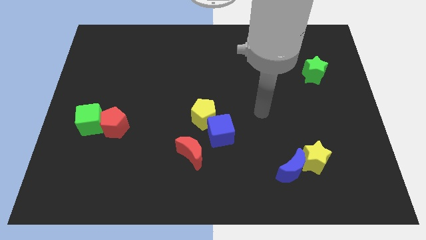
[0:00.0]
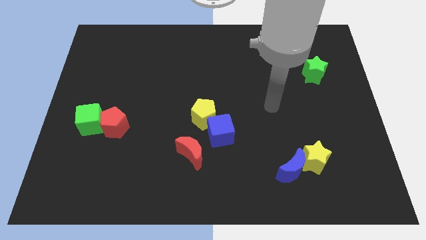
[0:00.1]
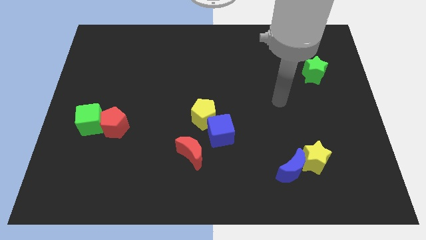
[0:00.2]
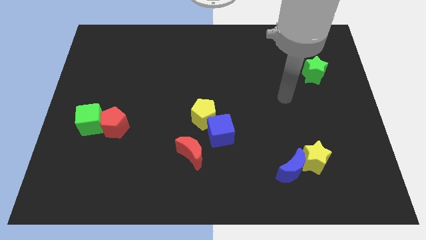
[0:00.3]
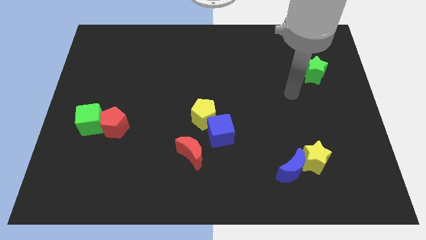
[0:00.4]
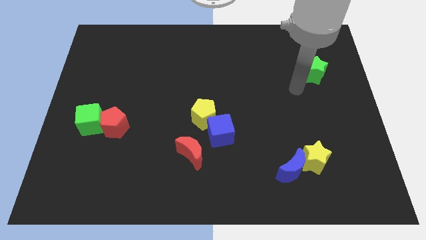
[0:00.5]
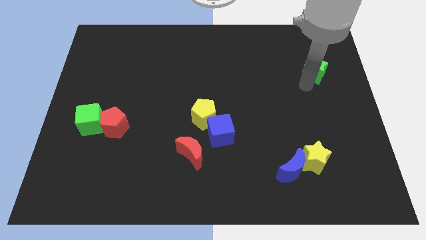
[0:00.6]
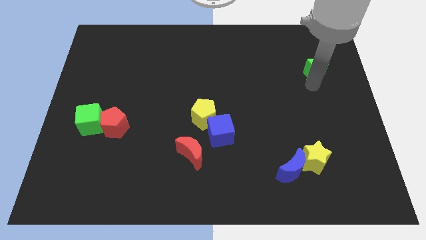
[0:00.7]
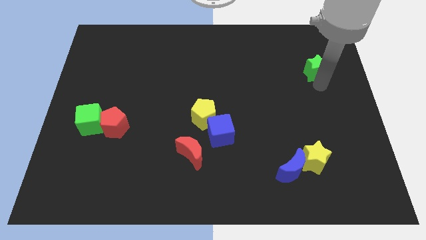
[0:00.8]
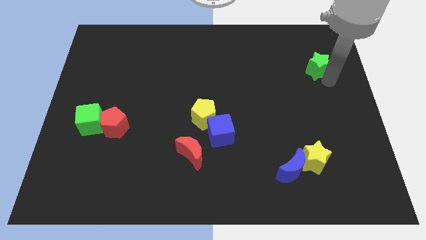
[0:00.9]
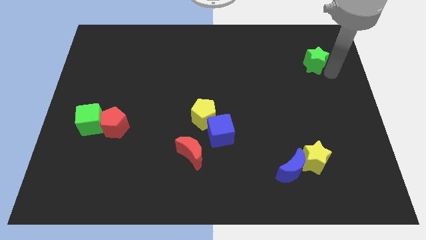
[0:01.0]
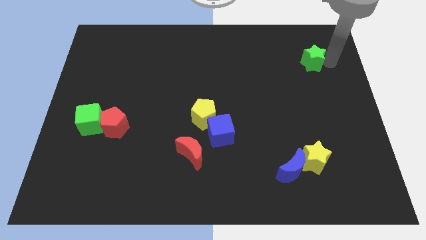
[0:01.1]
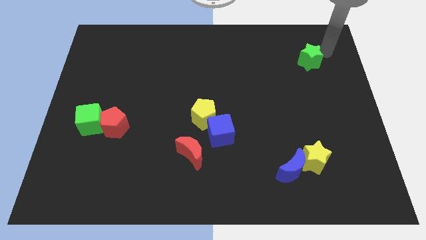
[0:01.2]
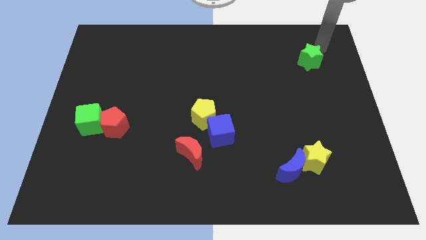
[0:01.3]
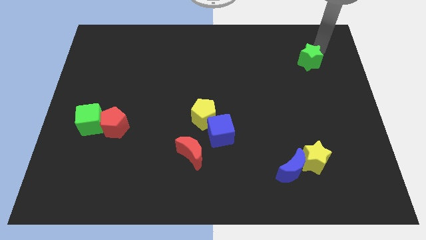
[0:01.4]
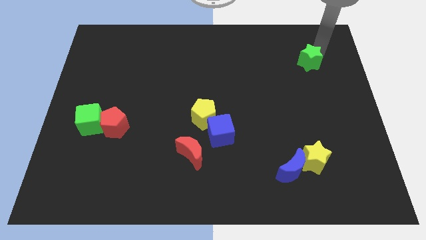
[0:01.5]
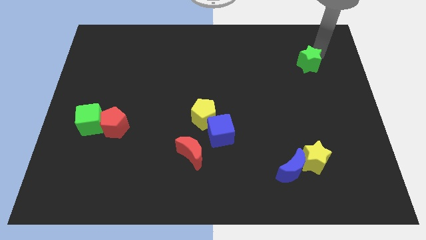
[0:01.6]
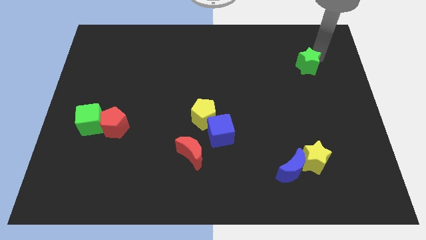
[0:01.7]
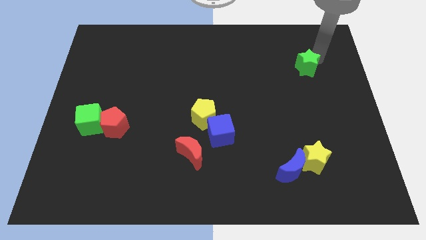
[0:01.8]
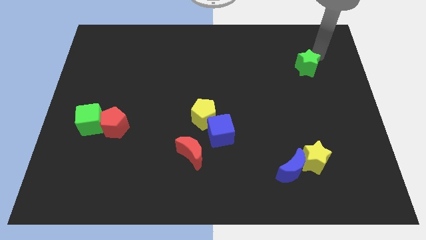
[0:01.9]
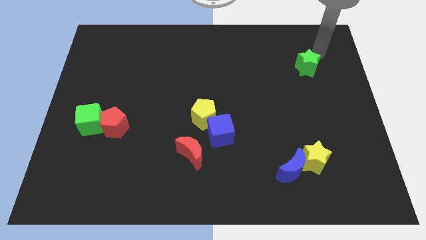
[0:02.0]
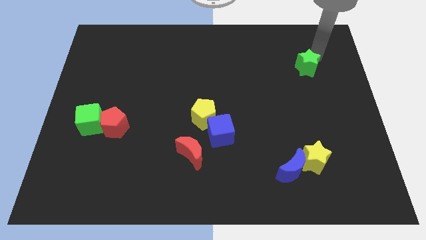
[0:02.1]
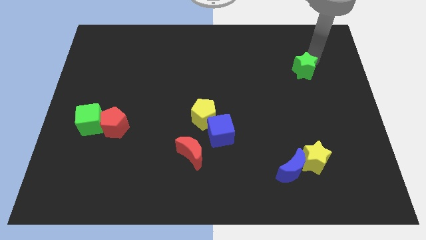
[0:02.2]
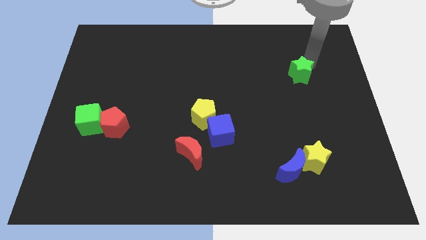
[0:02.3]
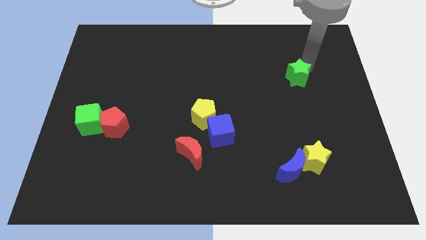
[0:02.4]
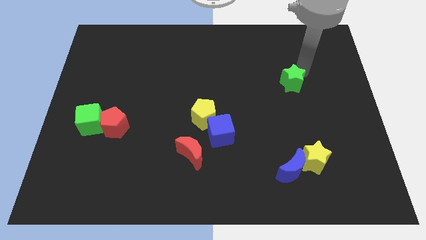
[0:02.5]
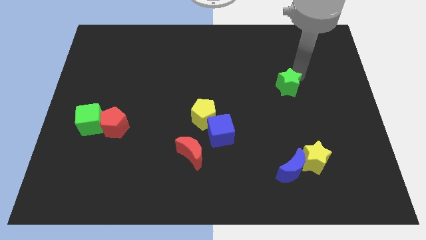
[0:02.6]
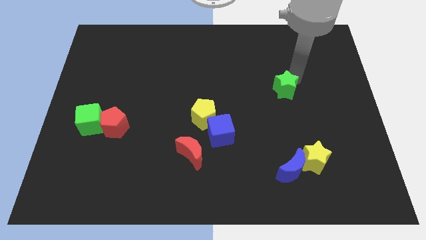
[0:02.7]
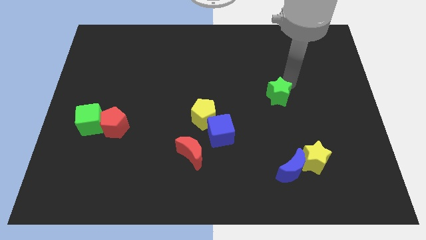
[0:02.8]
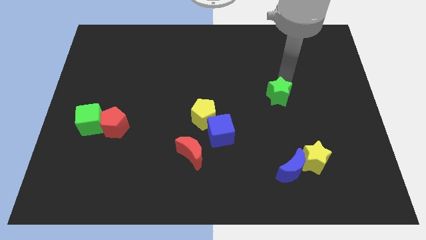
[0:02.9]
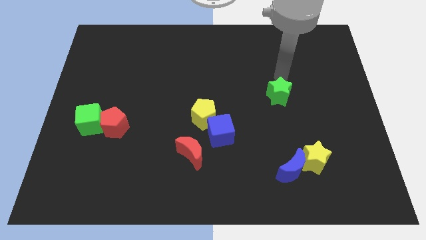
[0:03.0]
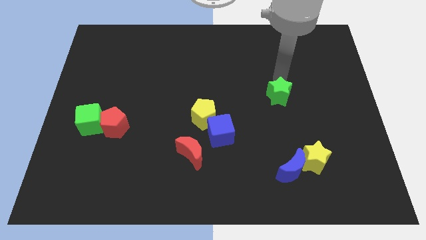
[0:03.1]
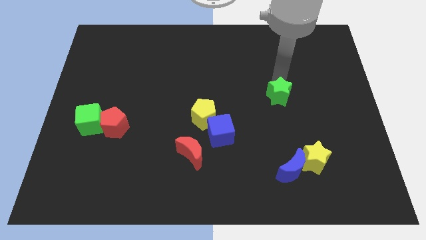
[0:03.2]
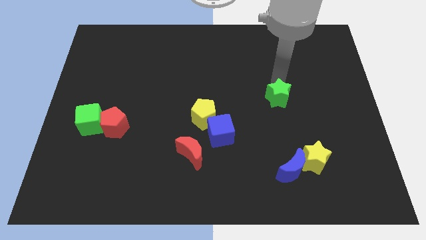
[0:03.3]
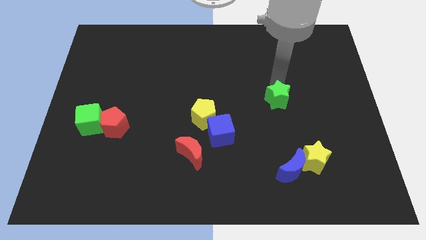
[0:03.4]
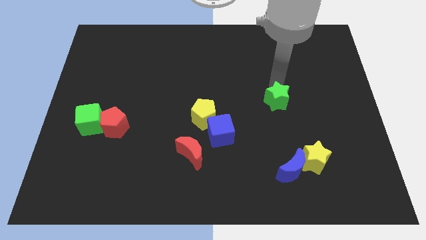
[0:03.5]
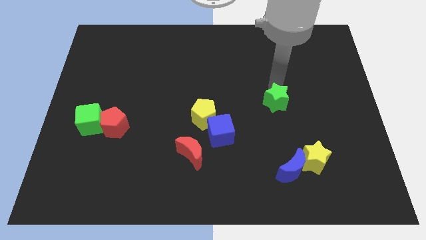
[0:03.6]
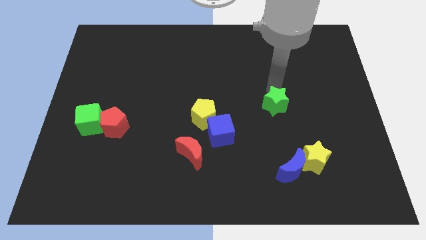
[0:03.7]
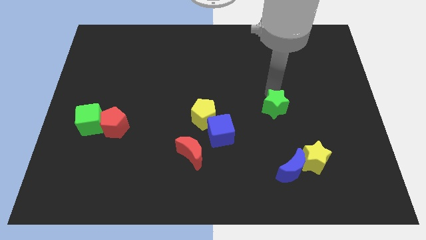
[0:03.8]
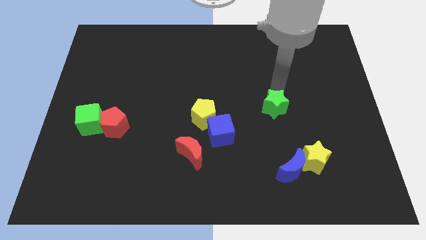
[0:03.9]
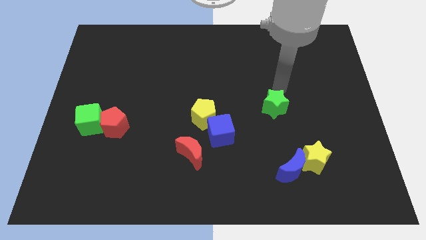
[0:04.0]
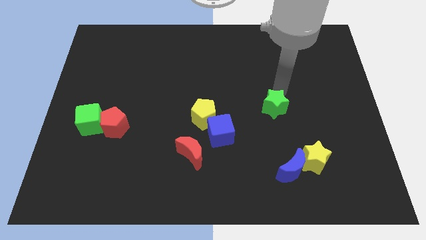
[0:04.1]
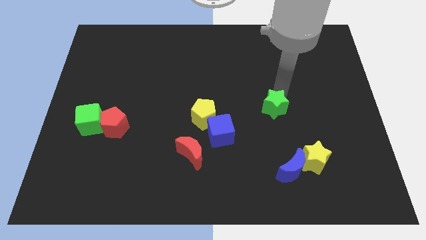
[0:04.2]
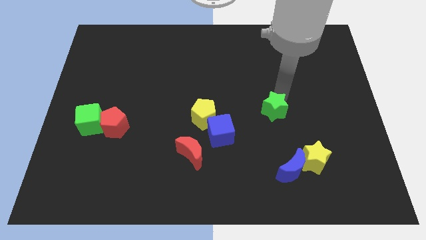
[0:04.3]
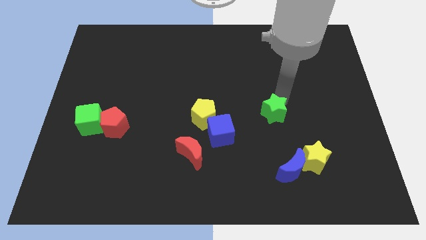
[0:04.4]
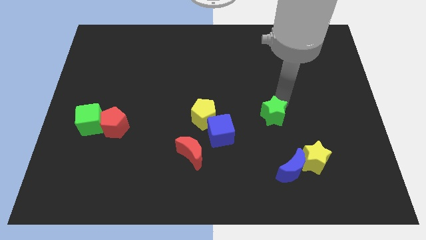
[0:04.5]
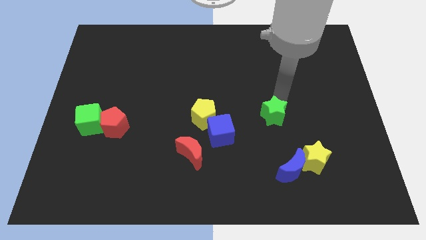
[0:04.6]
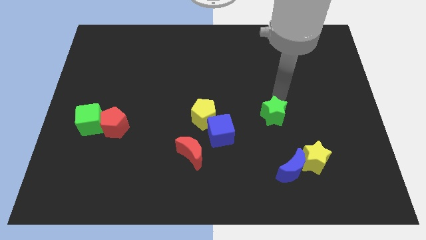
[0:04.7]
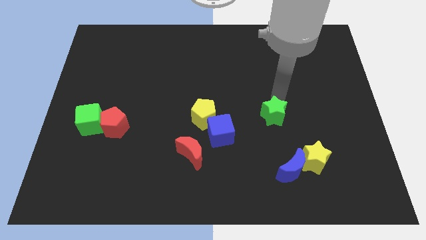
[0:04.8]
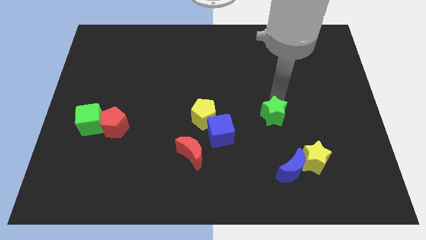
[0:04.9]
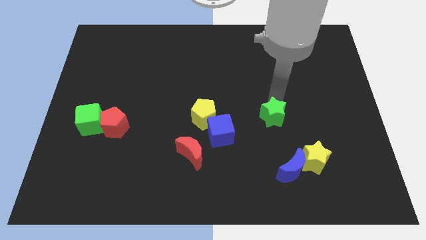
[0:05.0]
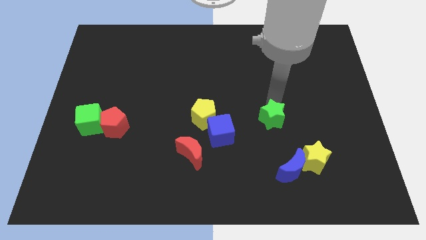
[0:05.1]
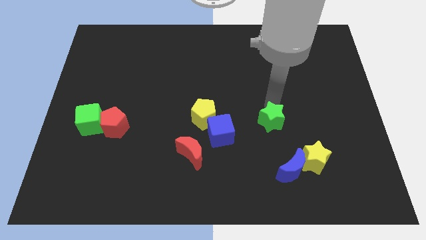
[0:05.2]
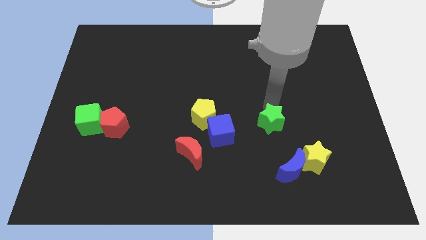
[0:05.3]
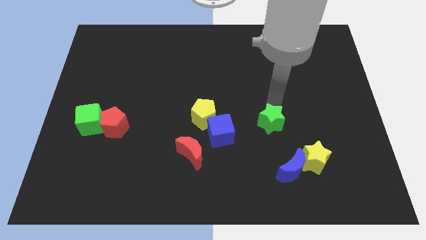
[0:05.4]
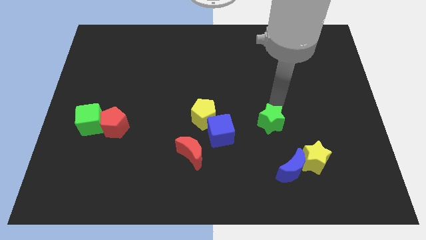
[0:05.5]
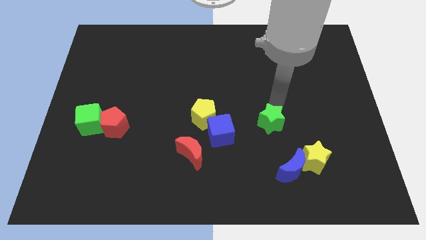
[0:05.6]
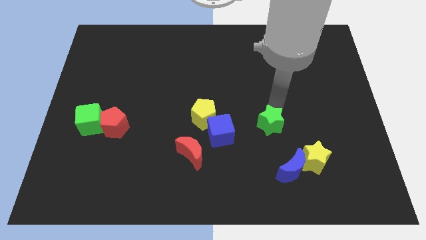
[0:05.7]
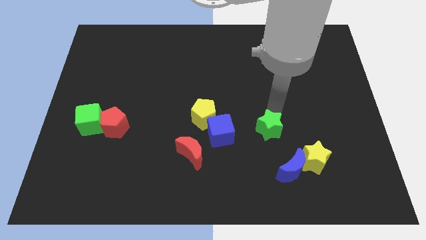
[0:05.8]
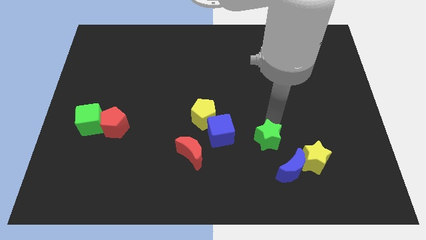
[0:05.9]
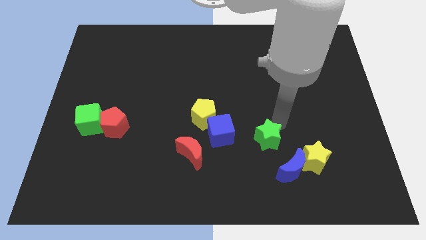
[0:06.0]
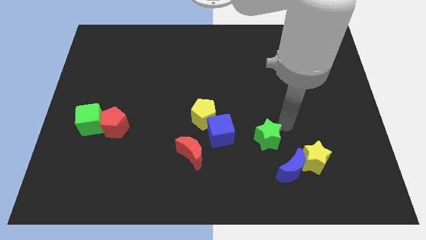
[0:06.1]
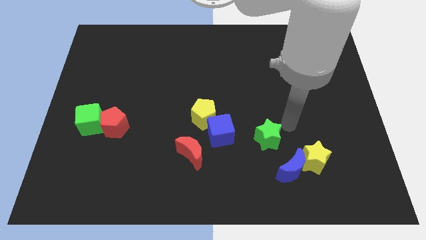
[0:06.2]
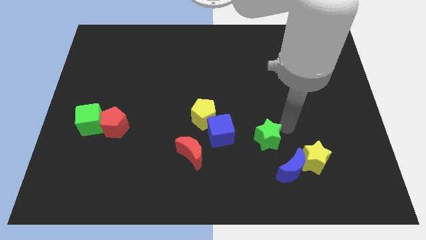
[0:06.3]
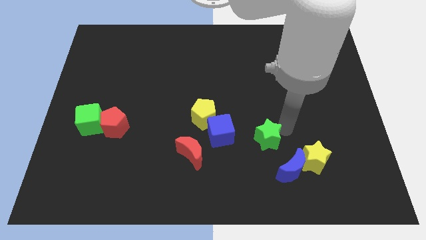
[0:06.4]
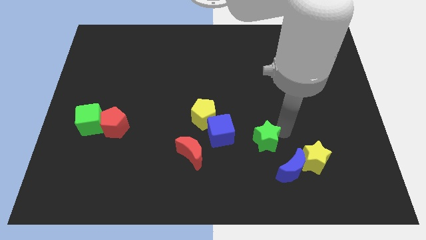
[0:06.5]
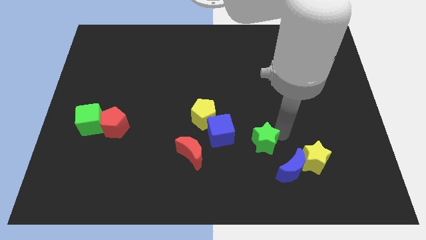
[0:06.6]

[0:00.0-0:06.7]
put the green star diagonally down and to the right of the blue cube

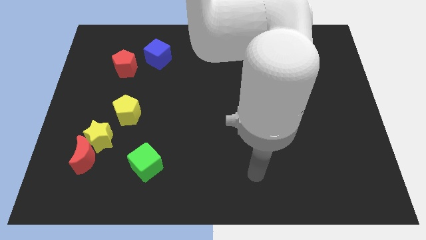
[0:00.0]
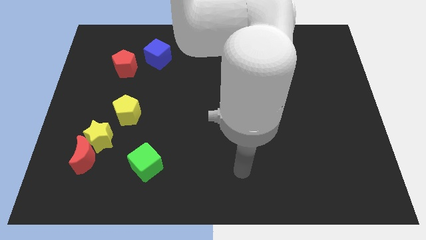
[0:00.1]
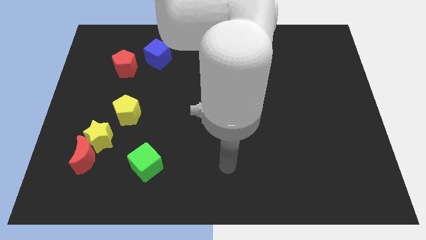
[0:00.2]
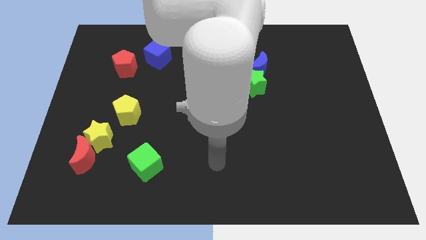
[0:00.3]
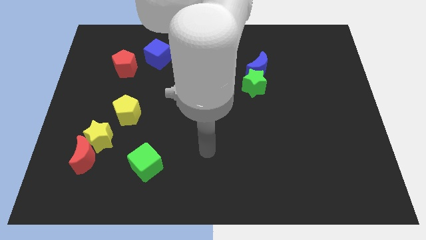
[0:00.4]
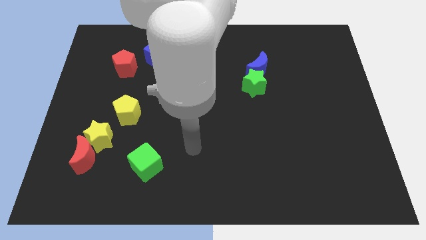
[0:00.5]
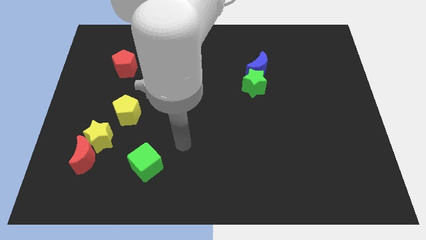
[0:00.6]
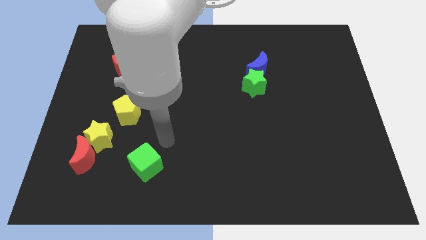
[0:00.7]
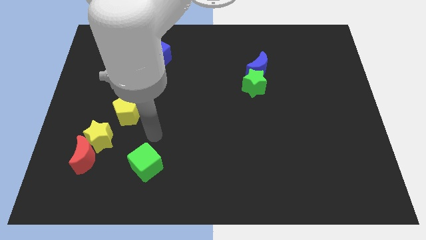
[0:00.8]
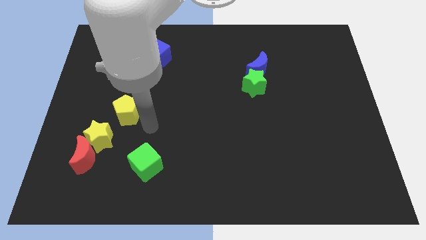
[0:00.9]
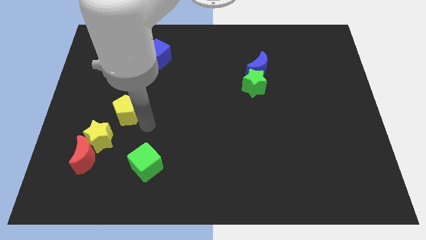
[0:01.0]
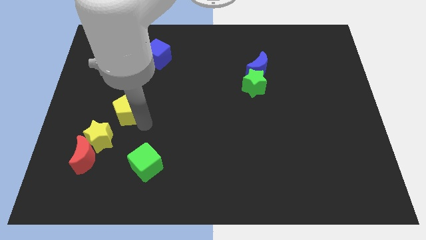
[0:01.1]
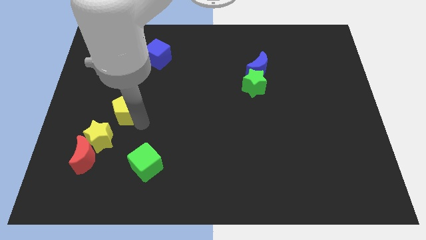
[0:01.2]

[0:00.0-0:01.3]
push the yellow pentagon to the top of the yellow star

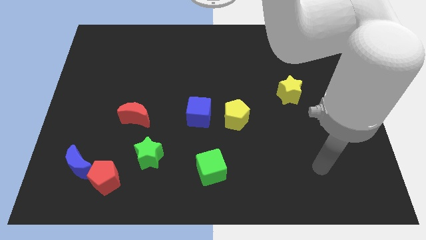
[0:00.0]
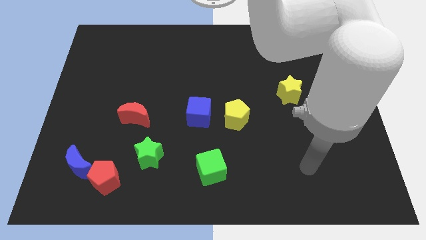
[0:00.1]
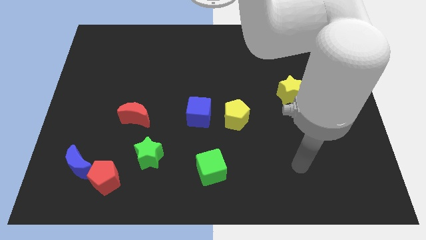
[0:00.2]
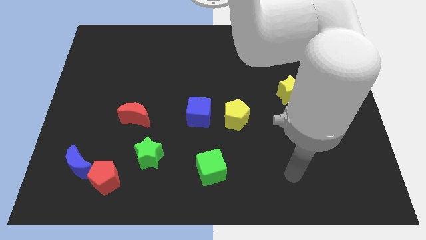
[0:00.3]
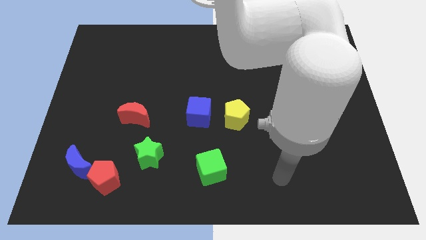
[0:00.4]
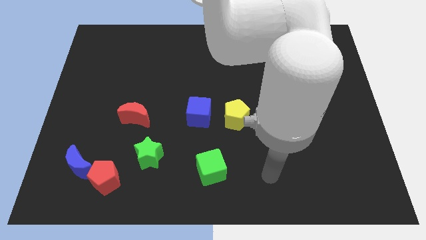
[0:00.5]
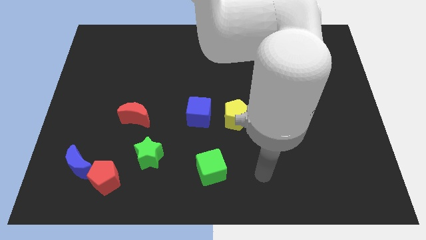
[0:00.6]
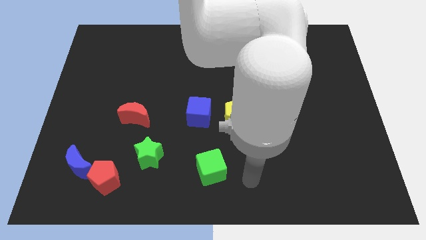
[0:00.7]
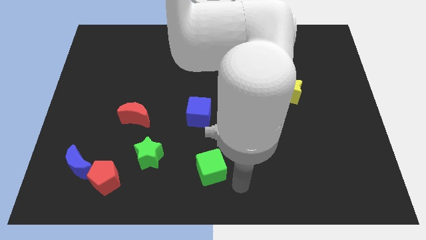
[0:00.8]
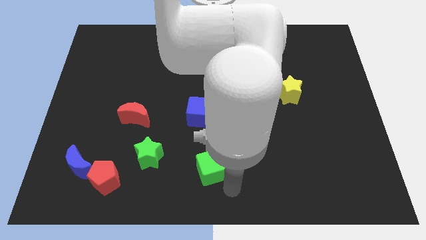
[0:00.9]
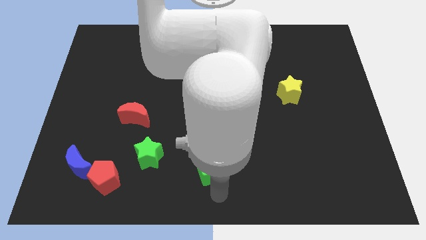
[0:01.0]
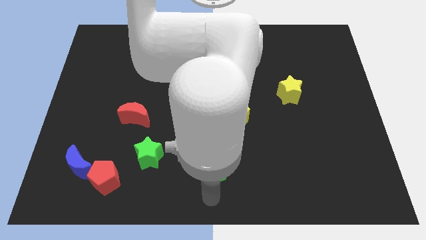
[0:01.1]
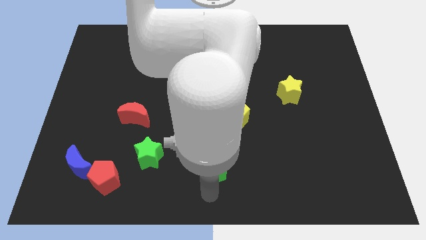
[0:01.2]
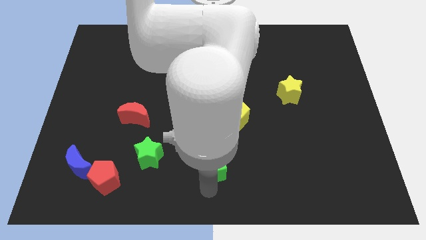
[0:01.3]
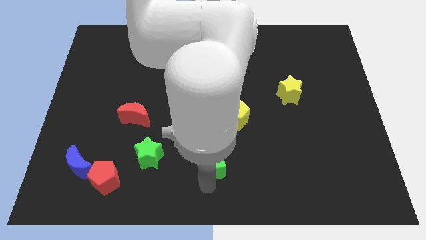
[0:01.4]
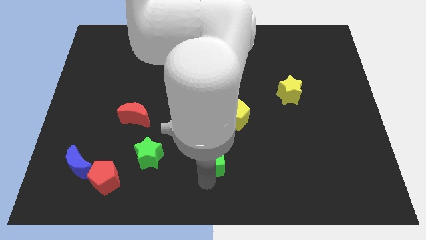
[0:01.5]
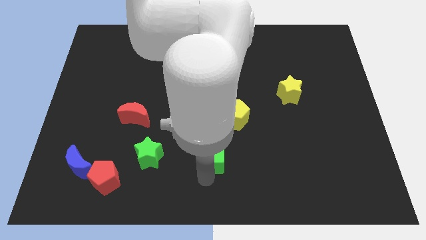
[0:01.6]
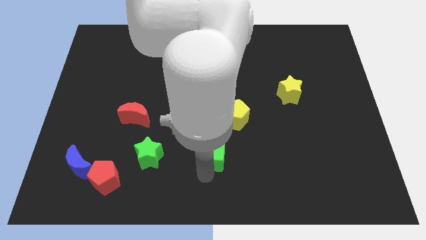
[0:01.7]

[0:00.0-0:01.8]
push the green cube diagonally down and to the left of the yellow pentagon
